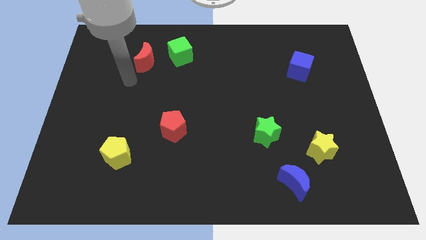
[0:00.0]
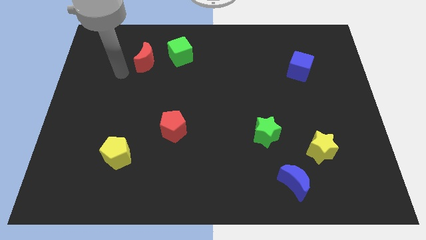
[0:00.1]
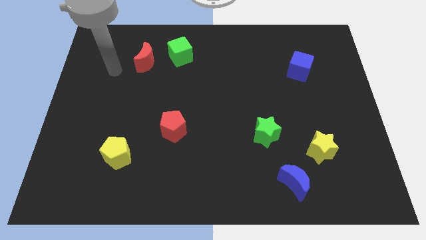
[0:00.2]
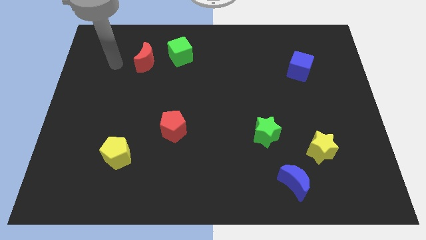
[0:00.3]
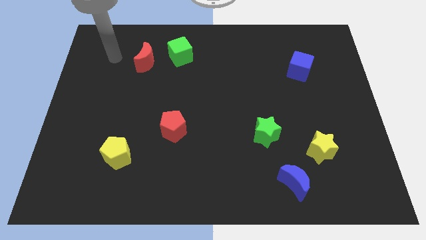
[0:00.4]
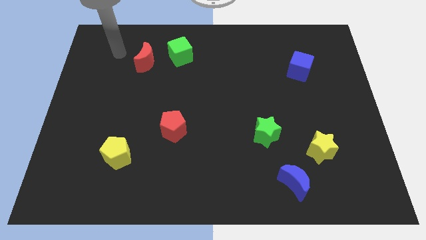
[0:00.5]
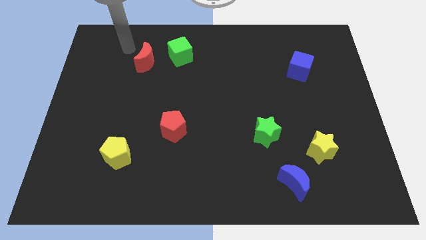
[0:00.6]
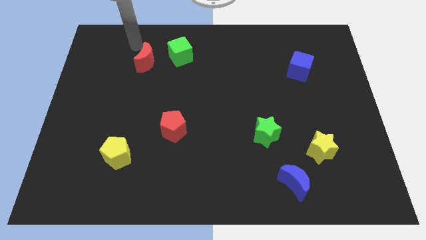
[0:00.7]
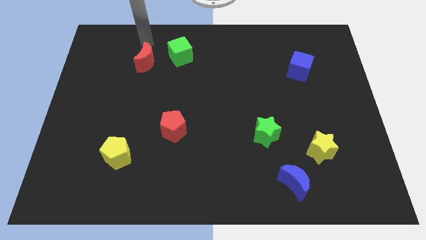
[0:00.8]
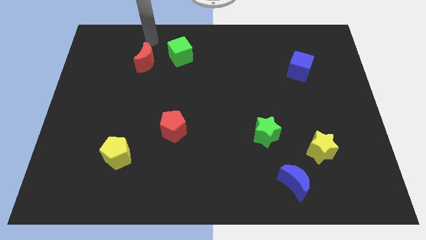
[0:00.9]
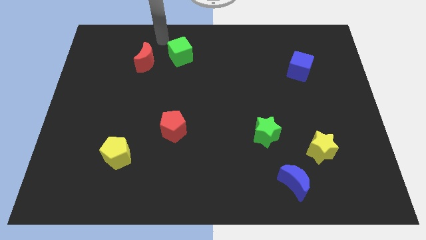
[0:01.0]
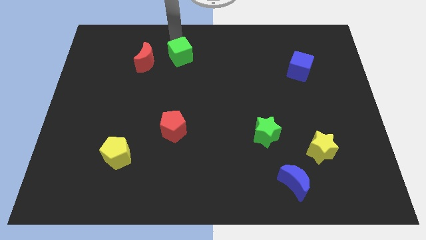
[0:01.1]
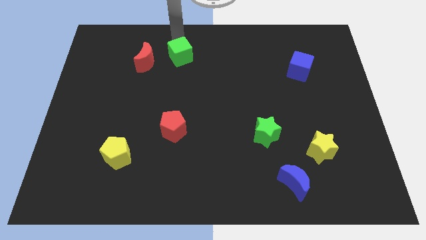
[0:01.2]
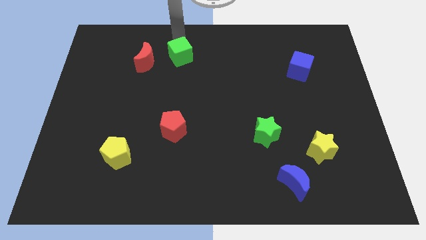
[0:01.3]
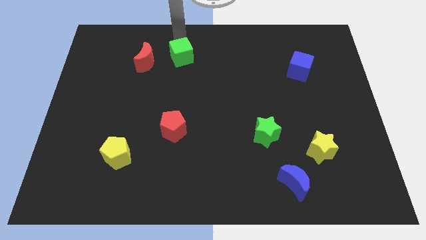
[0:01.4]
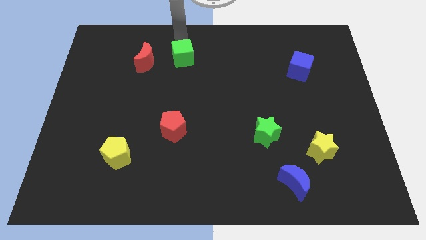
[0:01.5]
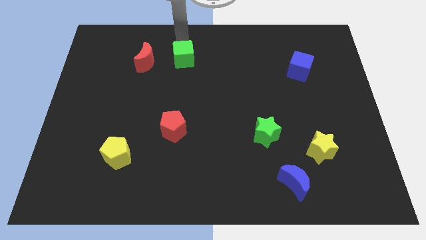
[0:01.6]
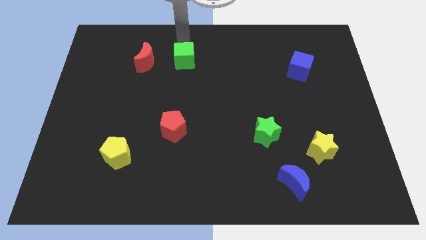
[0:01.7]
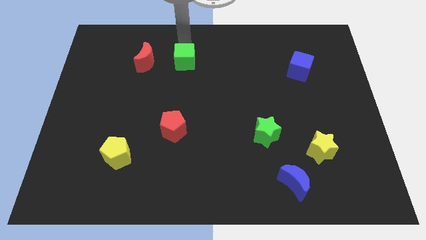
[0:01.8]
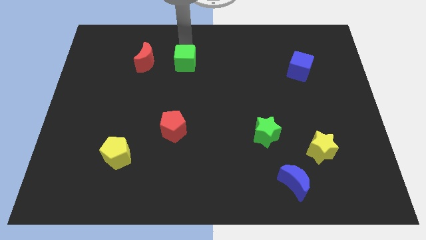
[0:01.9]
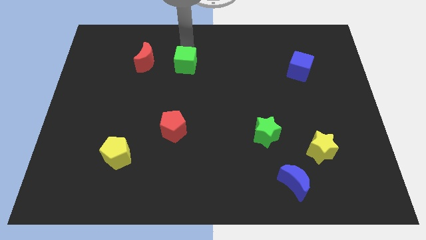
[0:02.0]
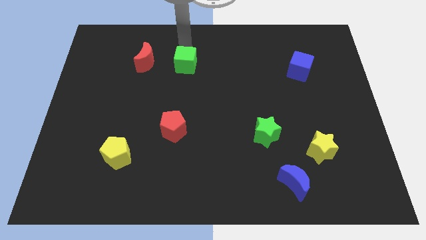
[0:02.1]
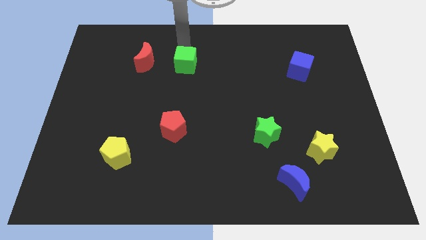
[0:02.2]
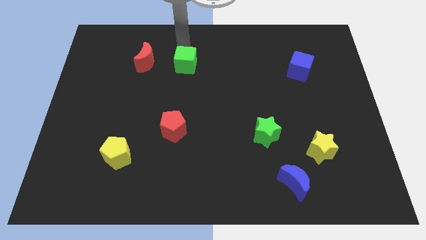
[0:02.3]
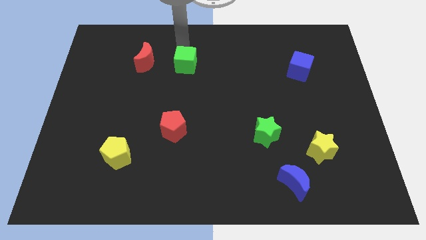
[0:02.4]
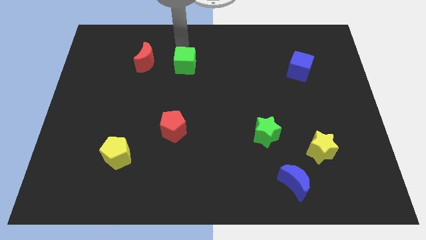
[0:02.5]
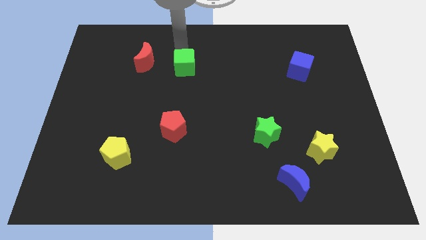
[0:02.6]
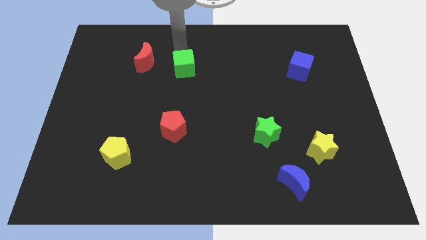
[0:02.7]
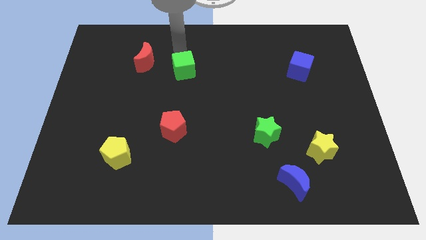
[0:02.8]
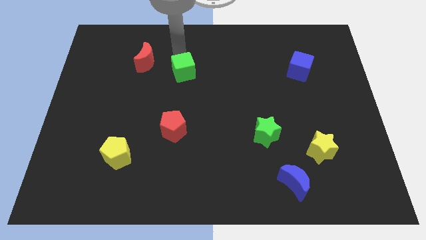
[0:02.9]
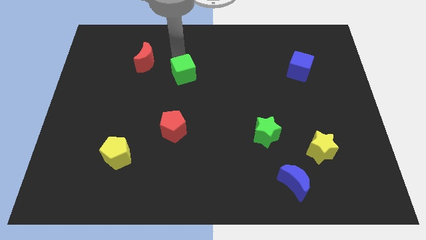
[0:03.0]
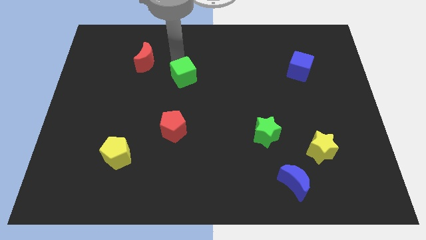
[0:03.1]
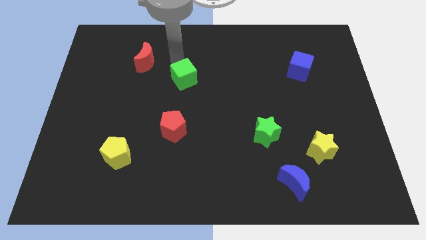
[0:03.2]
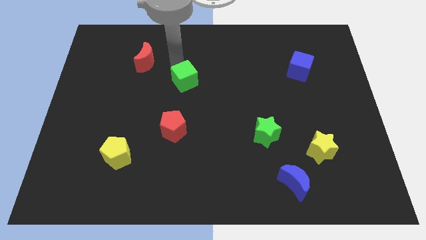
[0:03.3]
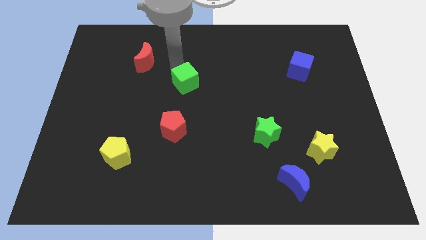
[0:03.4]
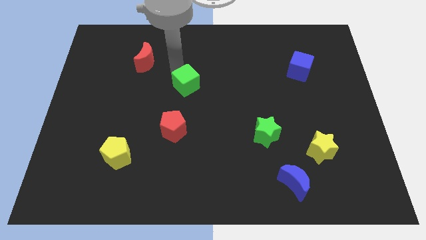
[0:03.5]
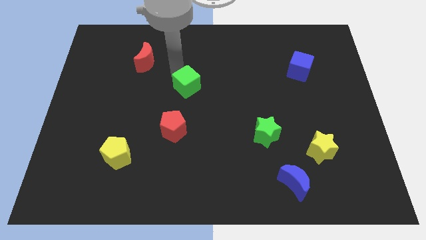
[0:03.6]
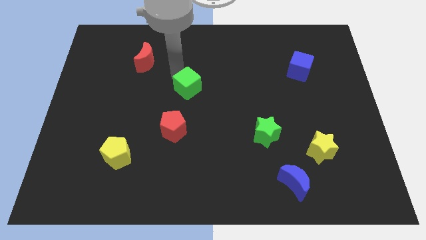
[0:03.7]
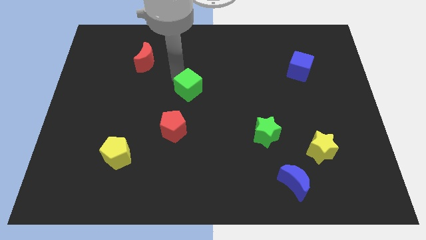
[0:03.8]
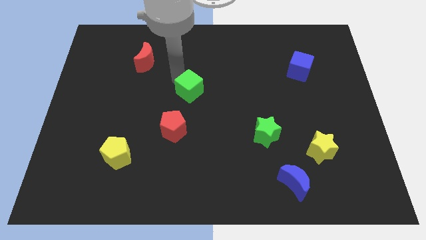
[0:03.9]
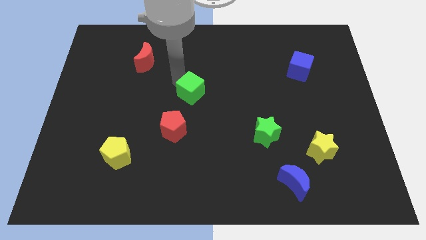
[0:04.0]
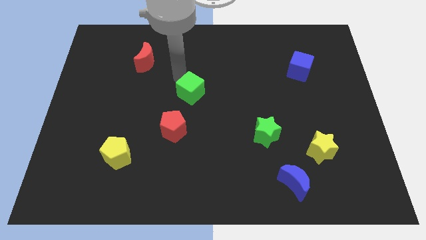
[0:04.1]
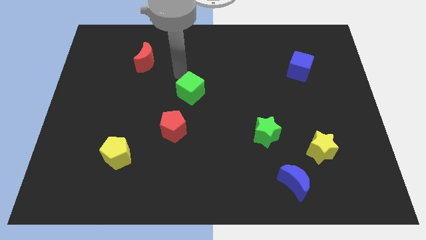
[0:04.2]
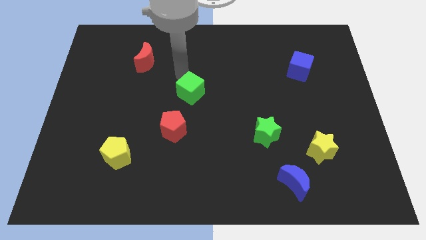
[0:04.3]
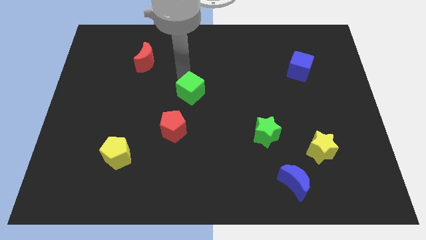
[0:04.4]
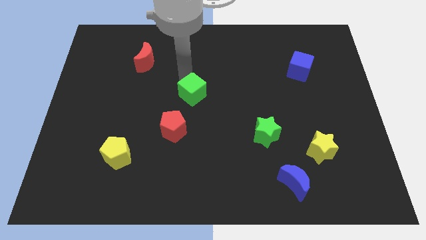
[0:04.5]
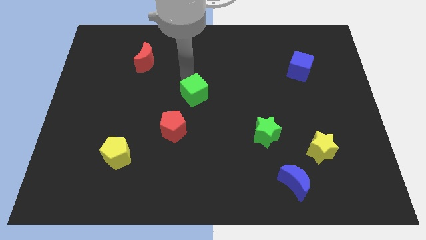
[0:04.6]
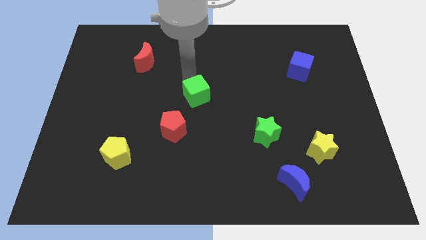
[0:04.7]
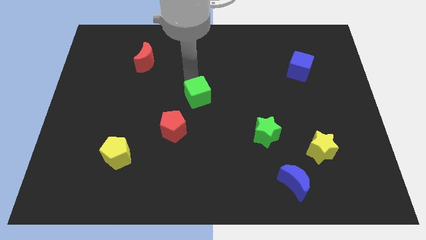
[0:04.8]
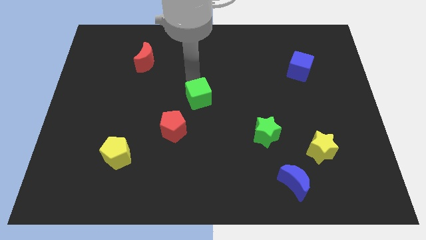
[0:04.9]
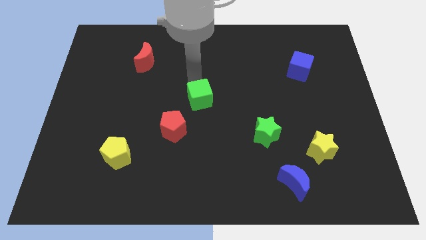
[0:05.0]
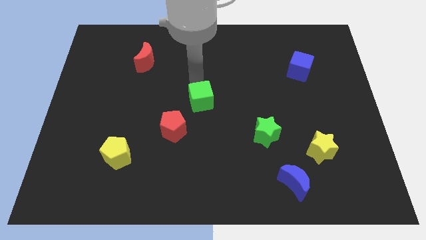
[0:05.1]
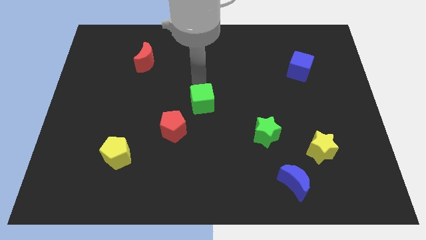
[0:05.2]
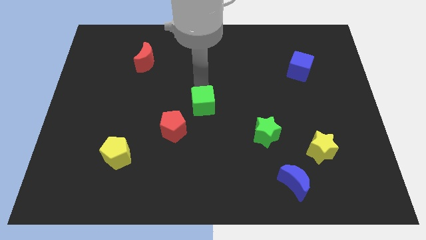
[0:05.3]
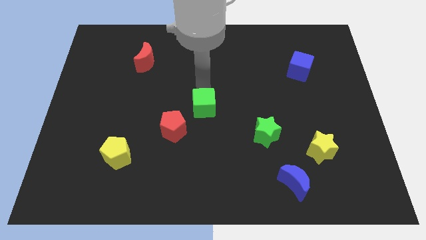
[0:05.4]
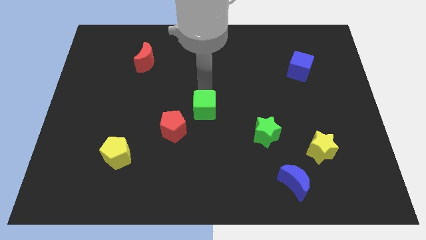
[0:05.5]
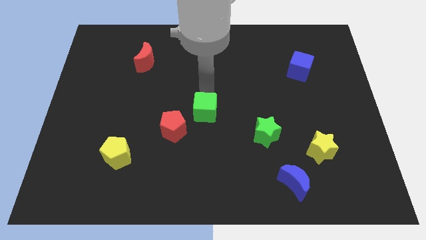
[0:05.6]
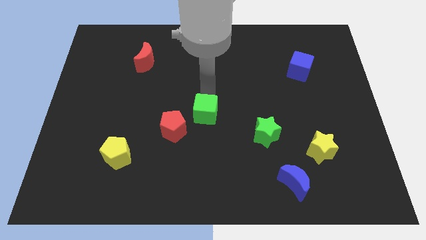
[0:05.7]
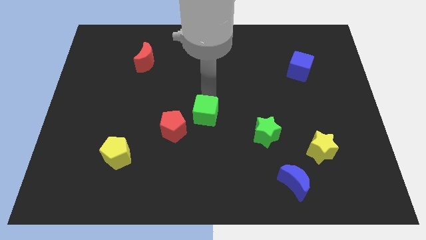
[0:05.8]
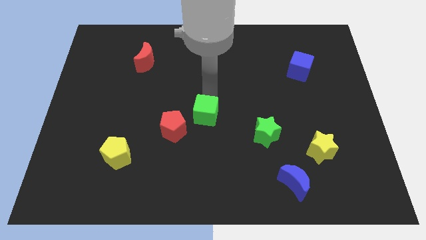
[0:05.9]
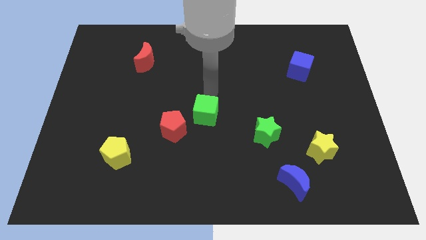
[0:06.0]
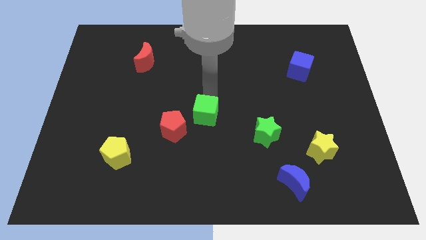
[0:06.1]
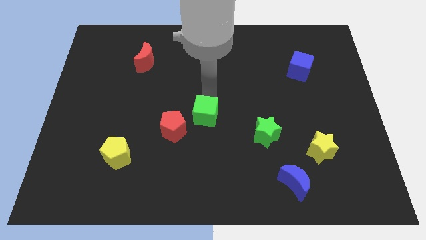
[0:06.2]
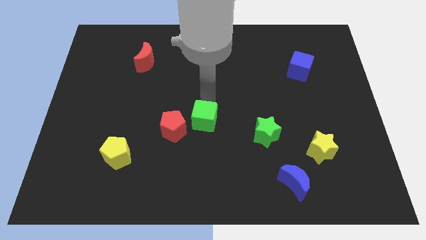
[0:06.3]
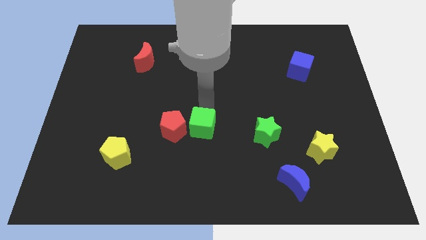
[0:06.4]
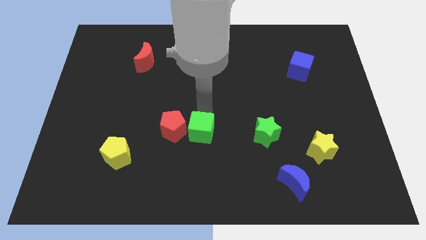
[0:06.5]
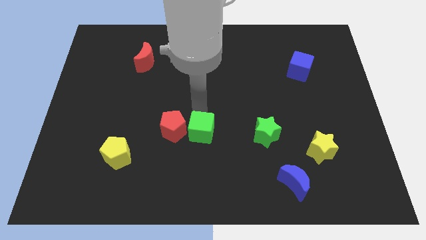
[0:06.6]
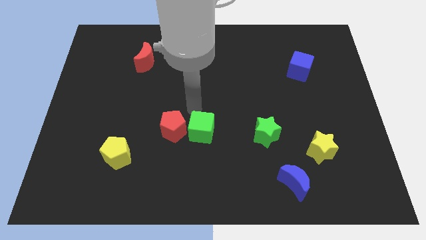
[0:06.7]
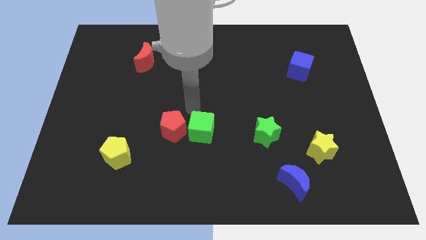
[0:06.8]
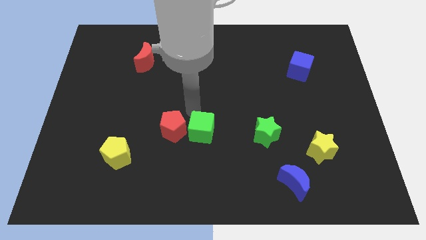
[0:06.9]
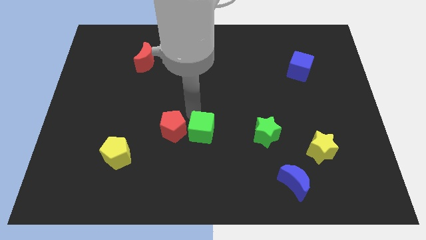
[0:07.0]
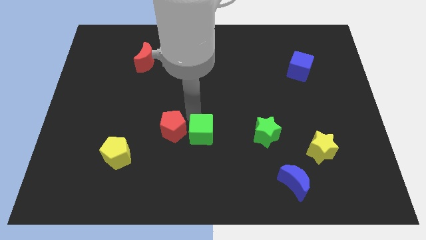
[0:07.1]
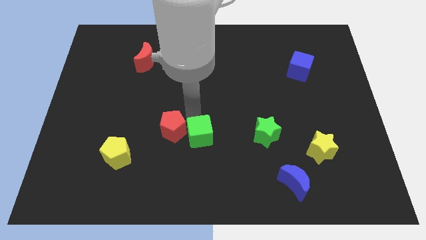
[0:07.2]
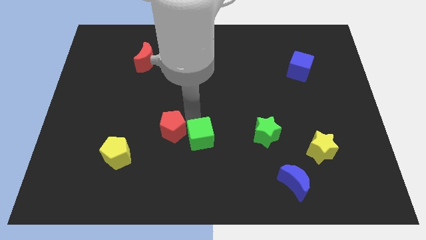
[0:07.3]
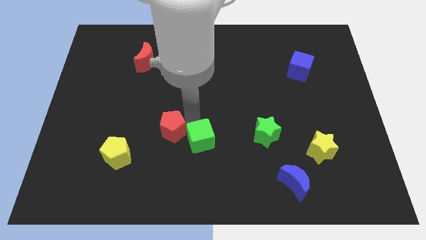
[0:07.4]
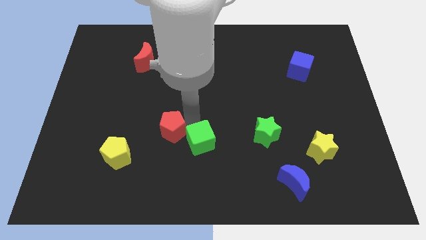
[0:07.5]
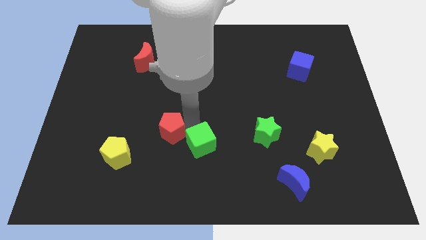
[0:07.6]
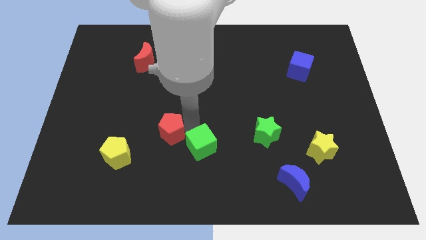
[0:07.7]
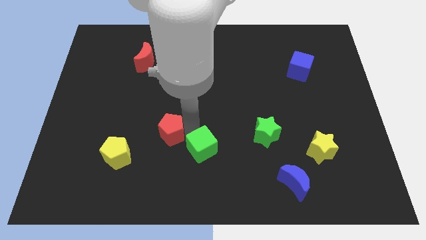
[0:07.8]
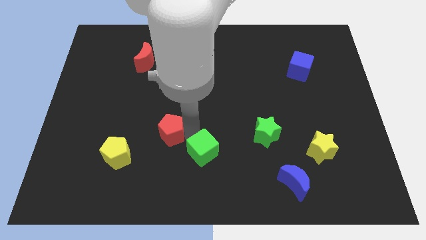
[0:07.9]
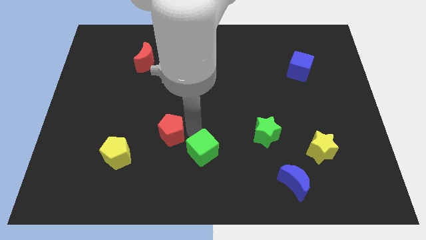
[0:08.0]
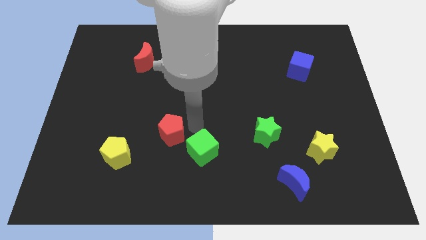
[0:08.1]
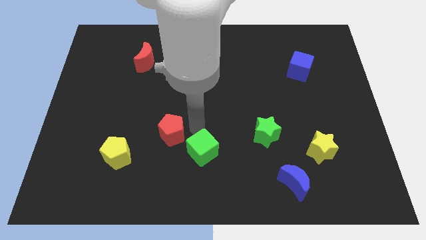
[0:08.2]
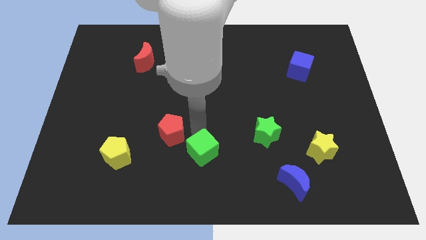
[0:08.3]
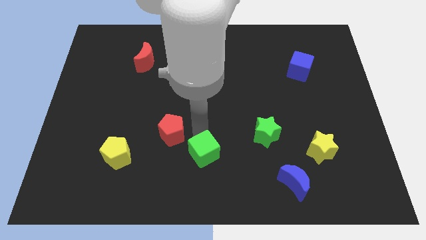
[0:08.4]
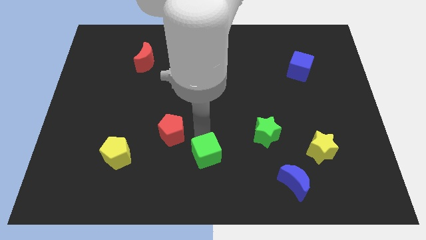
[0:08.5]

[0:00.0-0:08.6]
push the green cube to the bottom side
